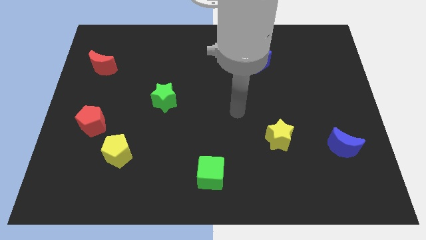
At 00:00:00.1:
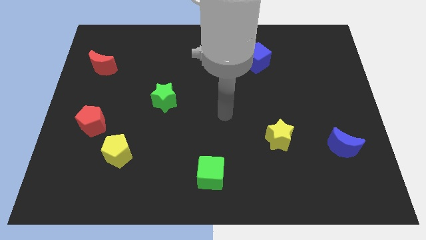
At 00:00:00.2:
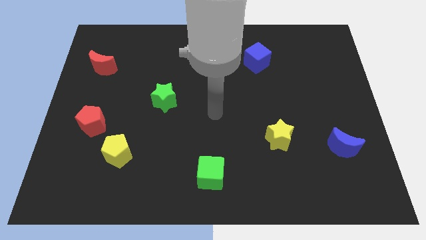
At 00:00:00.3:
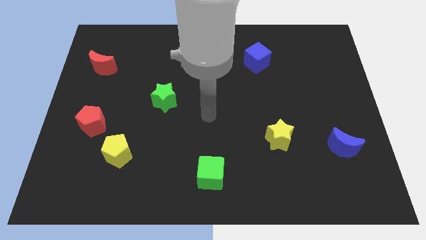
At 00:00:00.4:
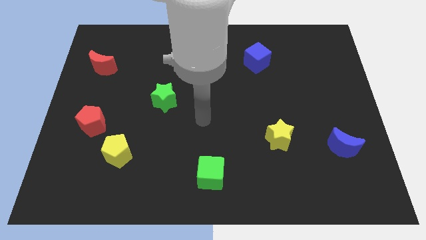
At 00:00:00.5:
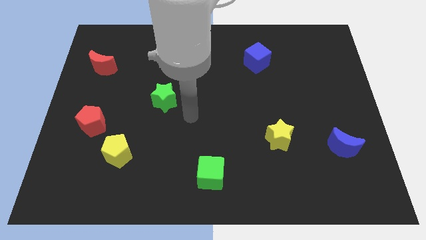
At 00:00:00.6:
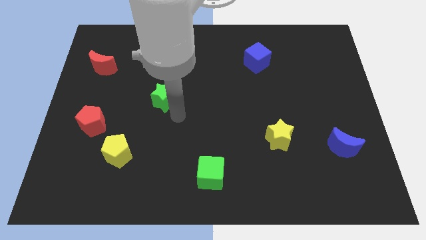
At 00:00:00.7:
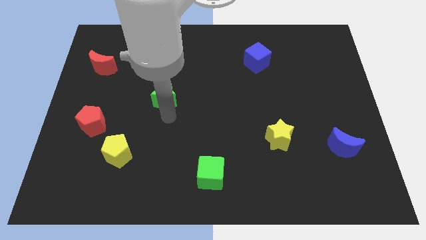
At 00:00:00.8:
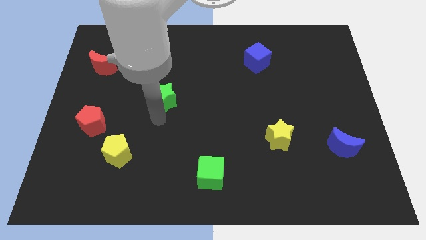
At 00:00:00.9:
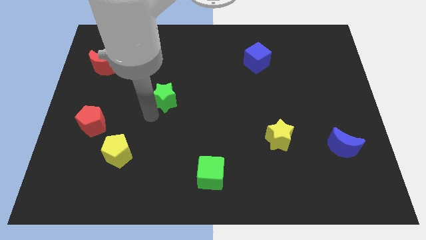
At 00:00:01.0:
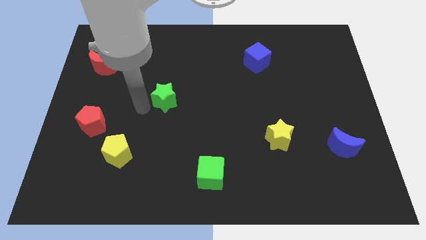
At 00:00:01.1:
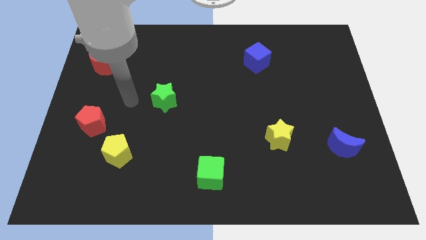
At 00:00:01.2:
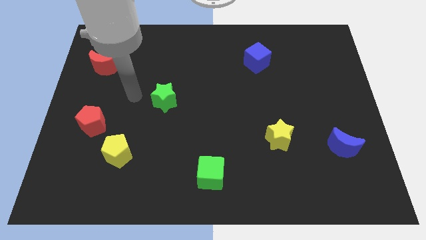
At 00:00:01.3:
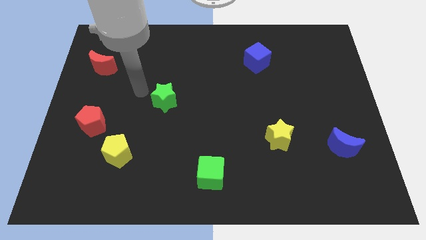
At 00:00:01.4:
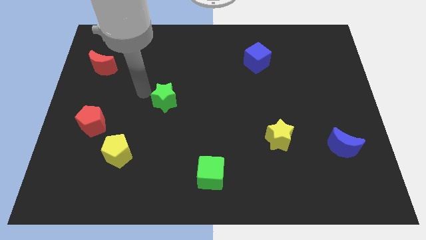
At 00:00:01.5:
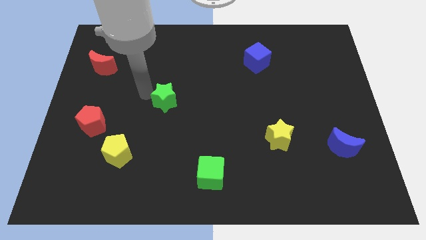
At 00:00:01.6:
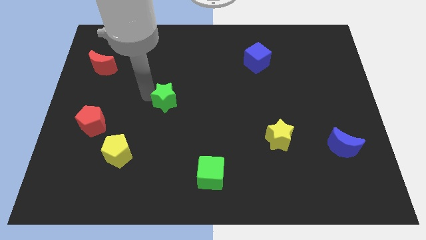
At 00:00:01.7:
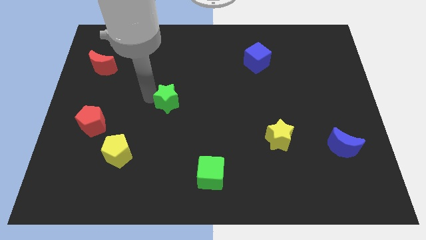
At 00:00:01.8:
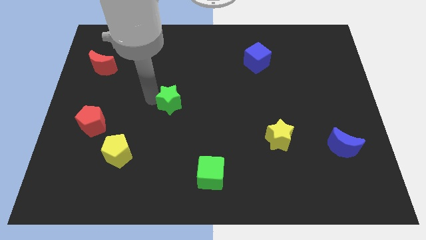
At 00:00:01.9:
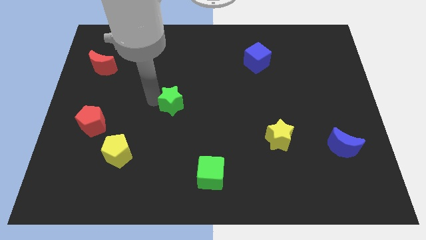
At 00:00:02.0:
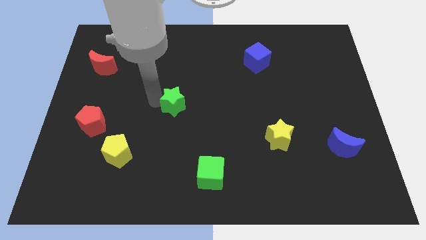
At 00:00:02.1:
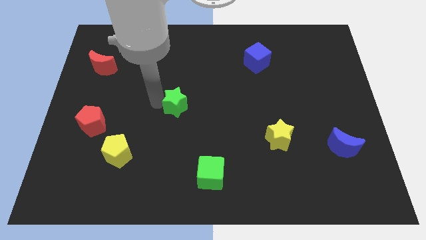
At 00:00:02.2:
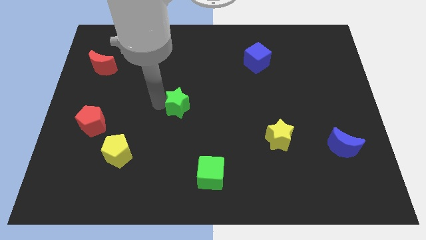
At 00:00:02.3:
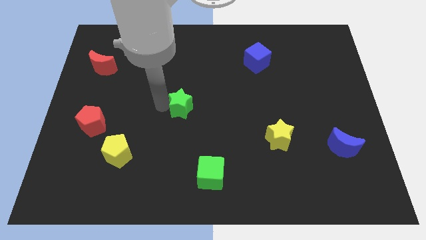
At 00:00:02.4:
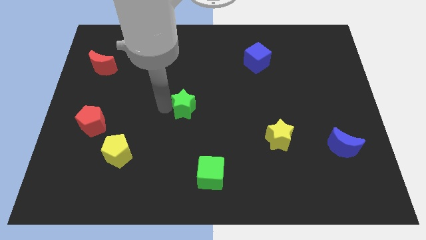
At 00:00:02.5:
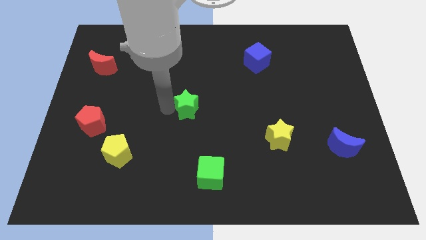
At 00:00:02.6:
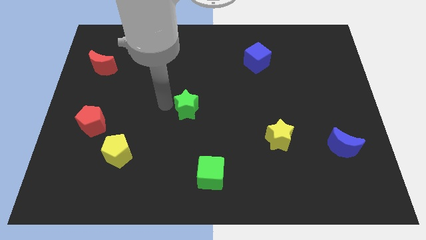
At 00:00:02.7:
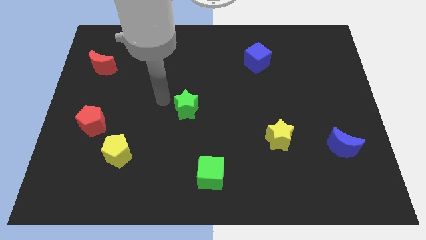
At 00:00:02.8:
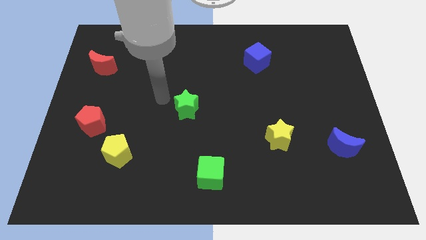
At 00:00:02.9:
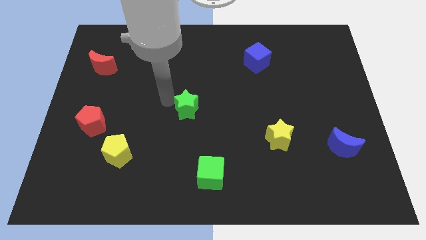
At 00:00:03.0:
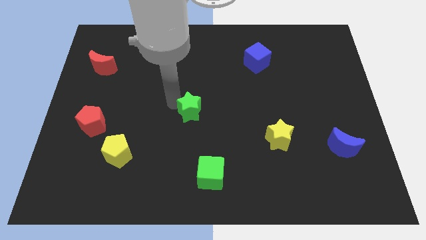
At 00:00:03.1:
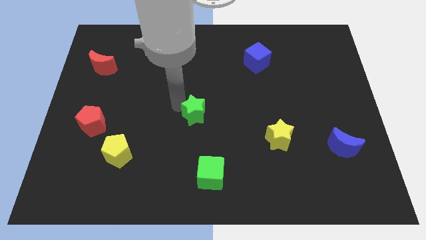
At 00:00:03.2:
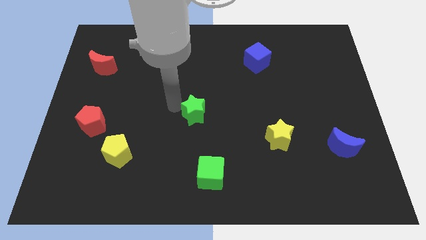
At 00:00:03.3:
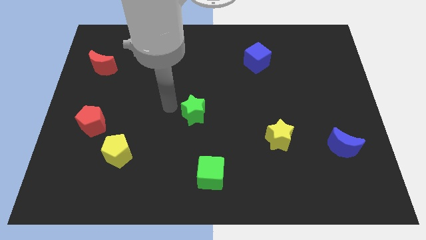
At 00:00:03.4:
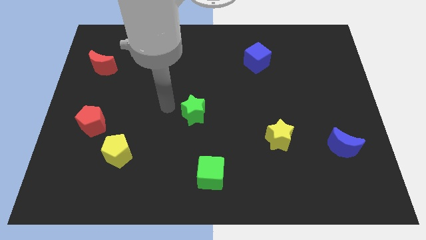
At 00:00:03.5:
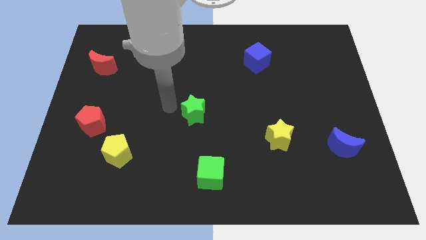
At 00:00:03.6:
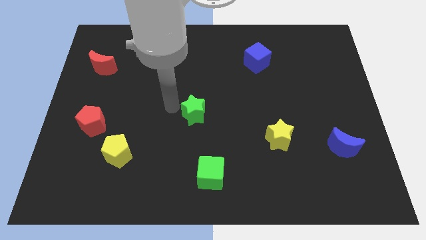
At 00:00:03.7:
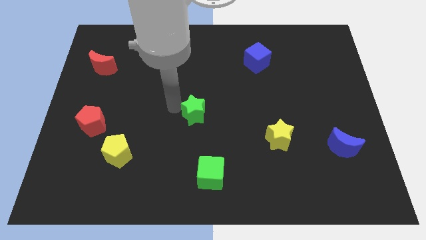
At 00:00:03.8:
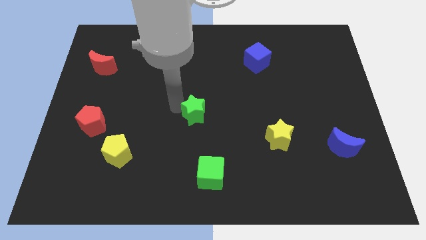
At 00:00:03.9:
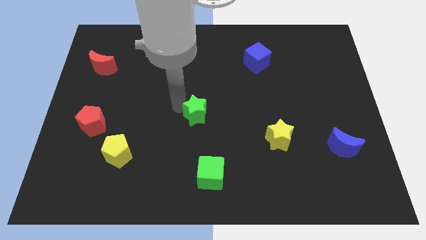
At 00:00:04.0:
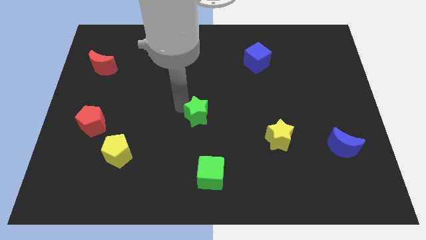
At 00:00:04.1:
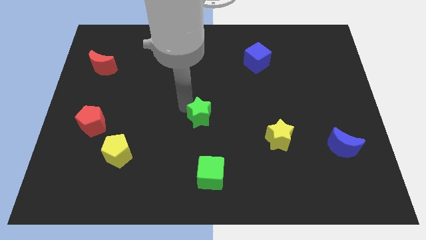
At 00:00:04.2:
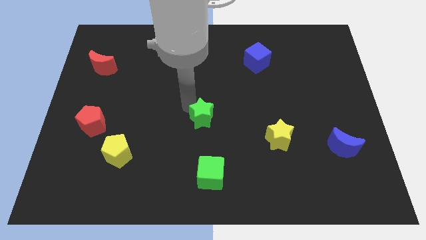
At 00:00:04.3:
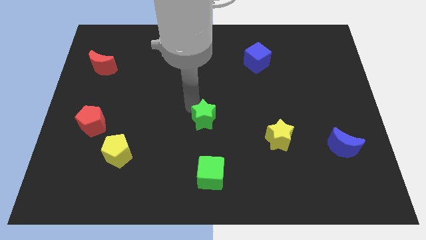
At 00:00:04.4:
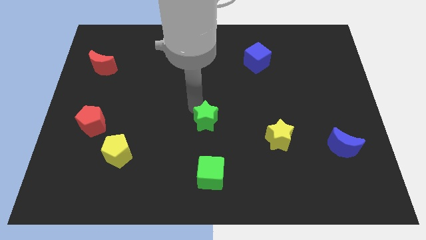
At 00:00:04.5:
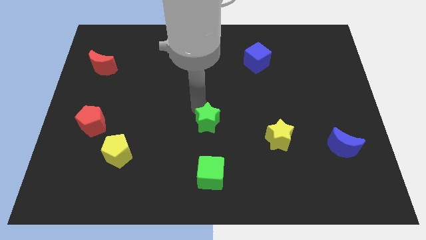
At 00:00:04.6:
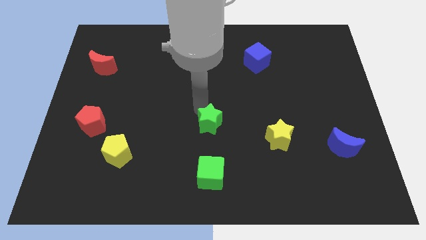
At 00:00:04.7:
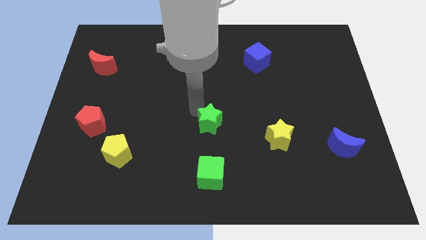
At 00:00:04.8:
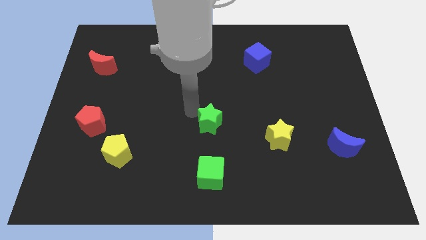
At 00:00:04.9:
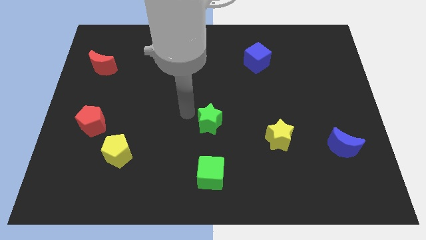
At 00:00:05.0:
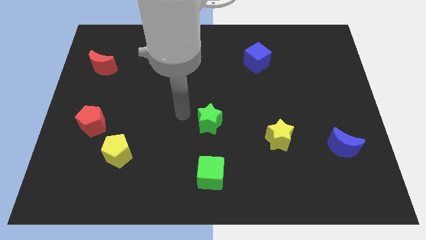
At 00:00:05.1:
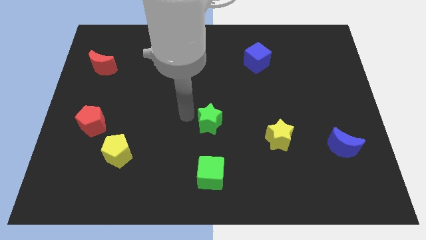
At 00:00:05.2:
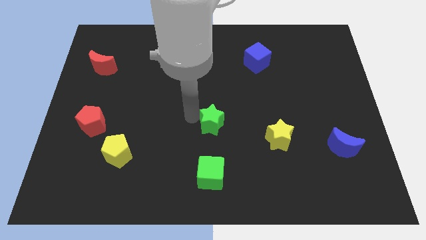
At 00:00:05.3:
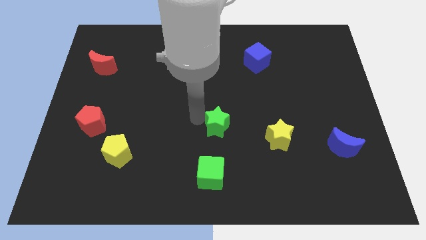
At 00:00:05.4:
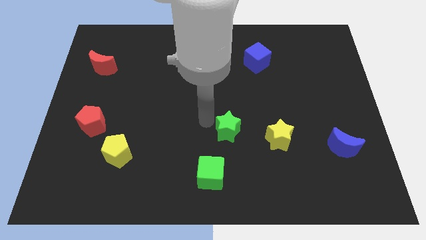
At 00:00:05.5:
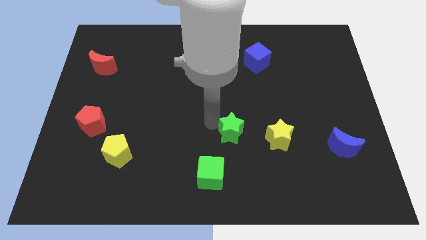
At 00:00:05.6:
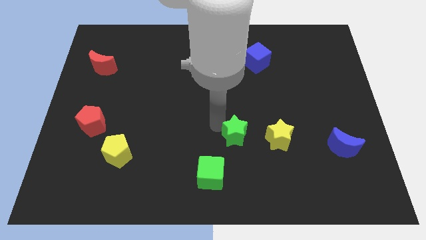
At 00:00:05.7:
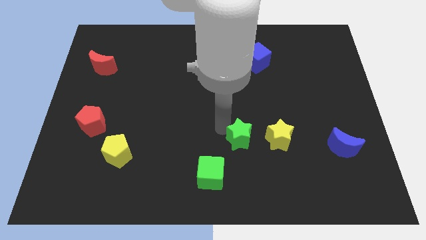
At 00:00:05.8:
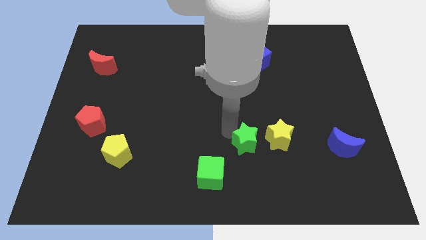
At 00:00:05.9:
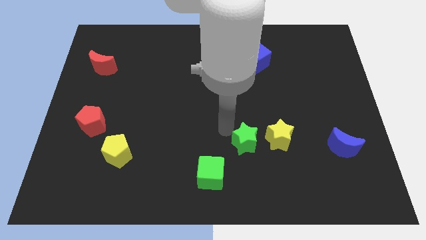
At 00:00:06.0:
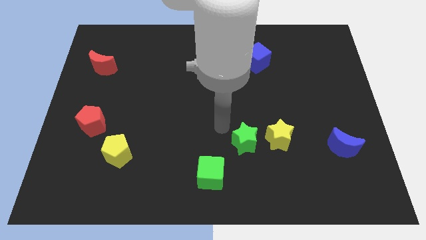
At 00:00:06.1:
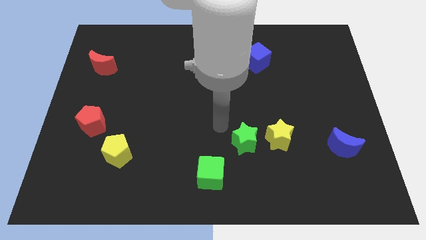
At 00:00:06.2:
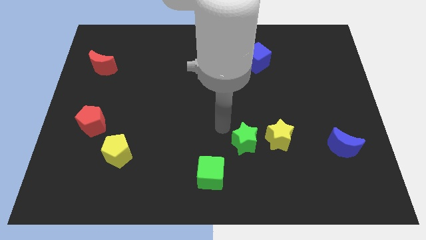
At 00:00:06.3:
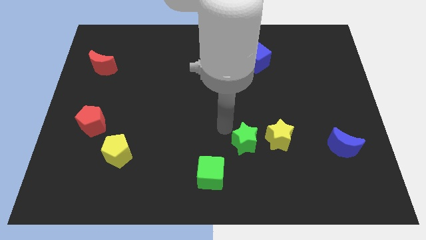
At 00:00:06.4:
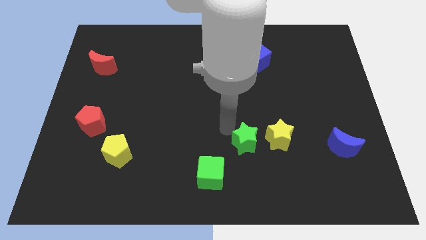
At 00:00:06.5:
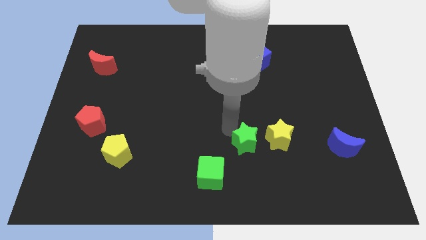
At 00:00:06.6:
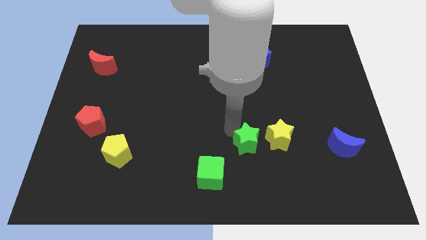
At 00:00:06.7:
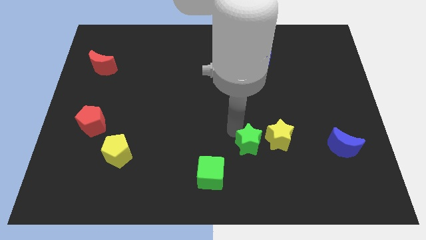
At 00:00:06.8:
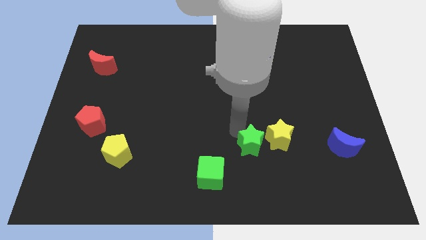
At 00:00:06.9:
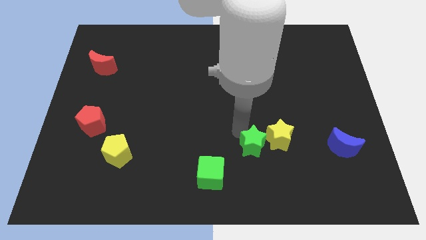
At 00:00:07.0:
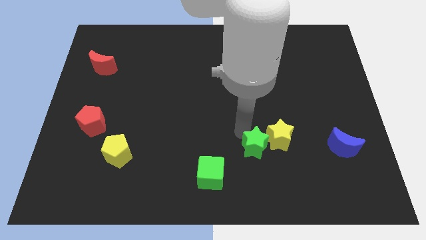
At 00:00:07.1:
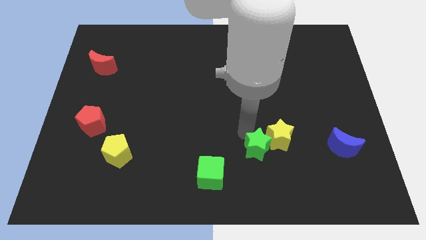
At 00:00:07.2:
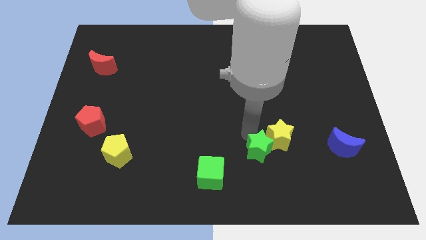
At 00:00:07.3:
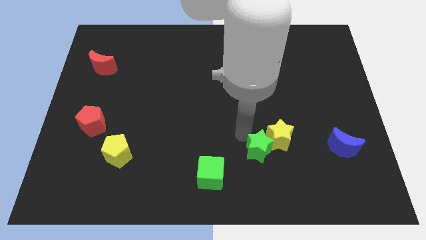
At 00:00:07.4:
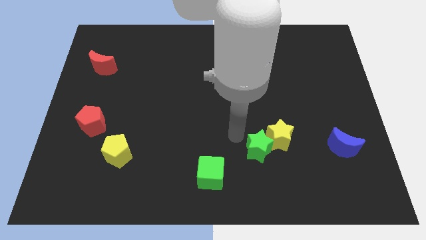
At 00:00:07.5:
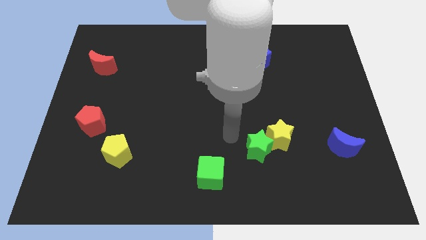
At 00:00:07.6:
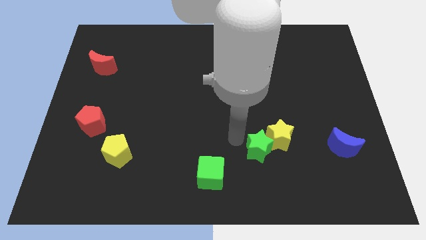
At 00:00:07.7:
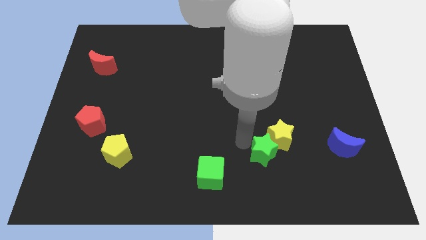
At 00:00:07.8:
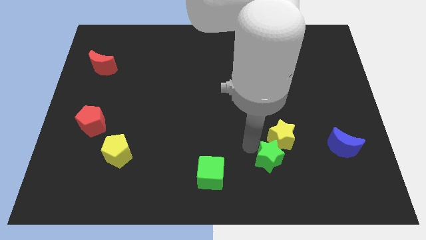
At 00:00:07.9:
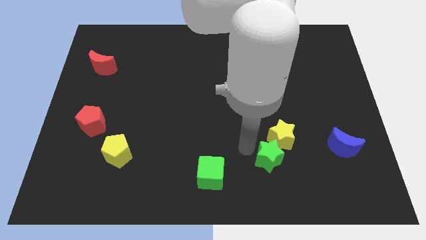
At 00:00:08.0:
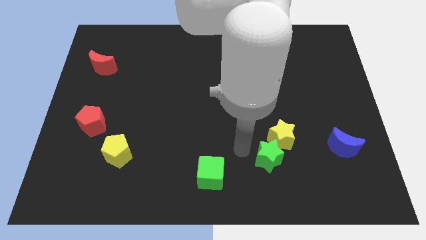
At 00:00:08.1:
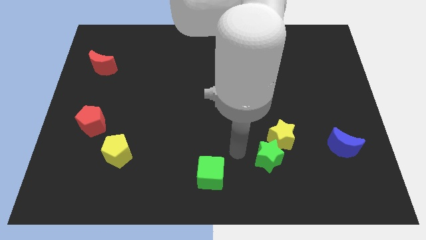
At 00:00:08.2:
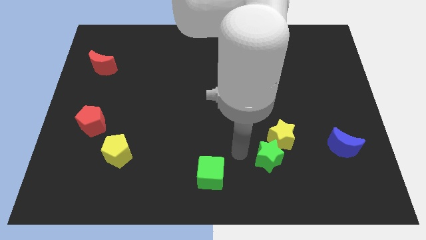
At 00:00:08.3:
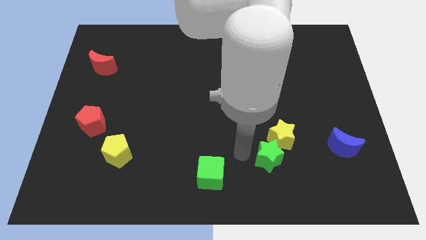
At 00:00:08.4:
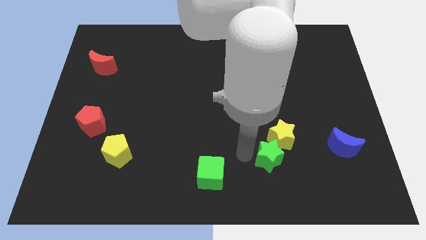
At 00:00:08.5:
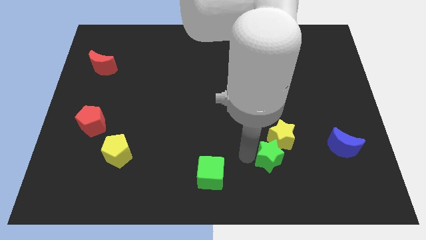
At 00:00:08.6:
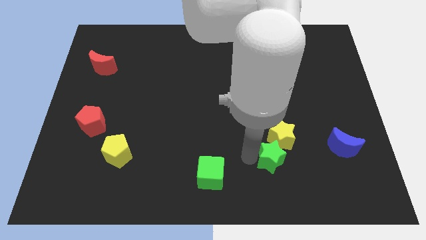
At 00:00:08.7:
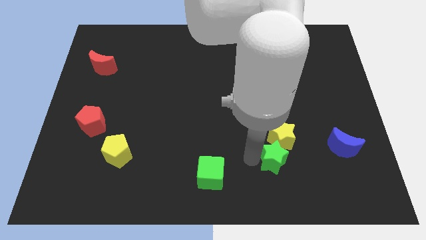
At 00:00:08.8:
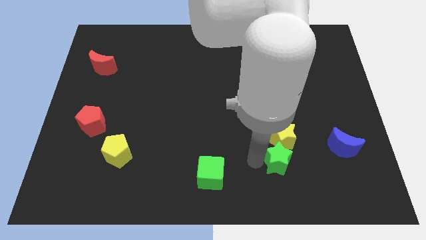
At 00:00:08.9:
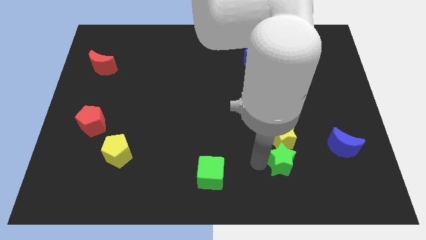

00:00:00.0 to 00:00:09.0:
slide the green star to the bottom right side of the yellow star
